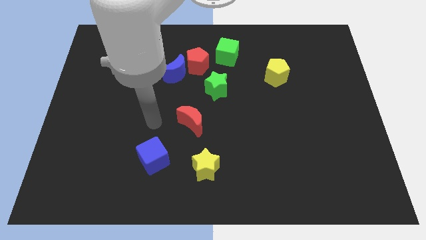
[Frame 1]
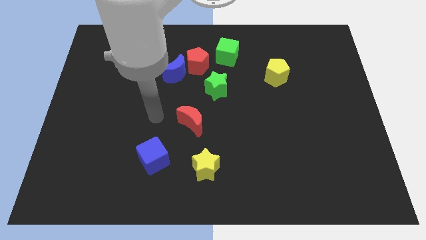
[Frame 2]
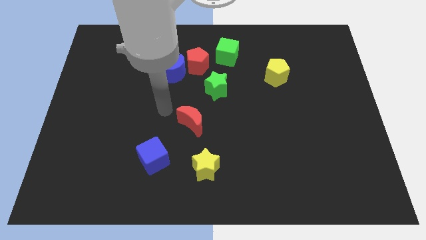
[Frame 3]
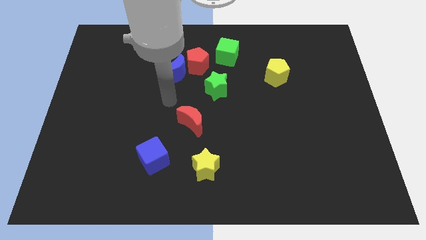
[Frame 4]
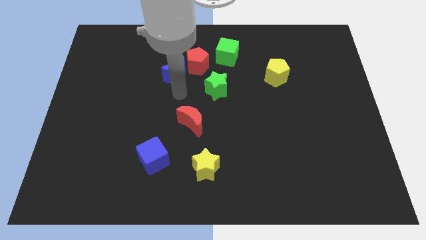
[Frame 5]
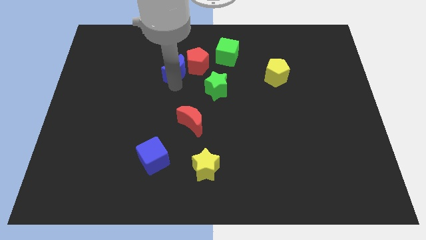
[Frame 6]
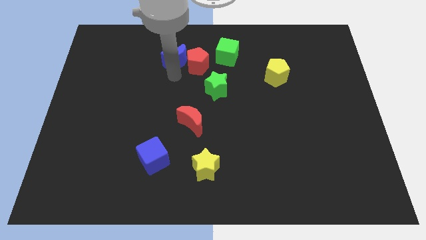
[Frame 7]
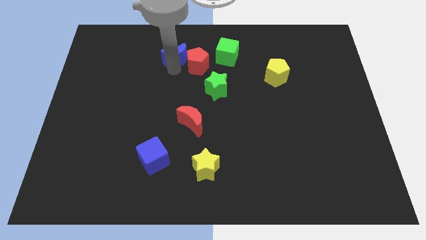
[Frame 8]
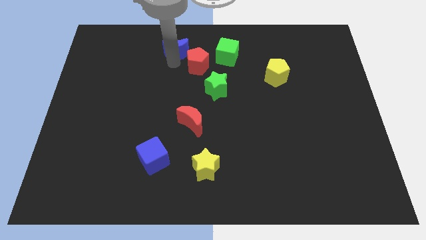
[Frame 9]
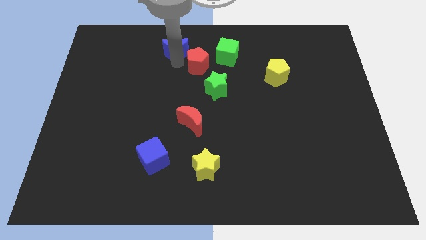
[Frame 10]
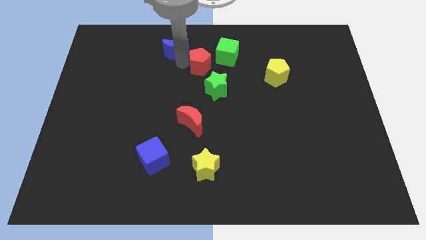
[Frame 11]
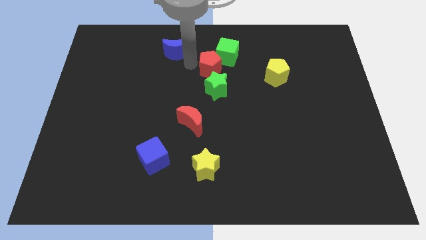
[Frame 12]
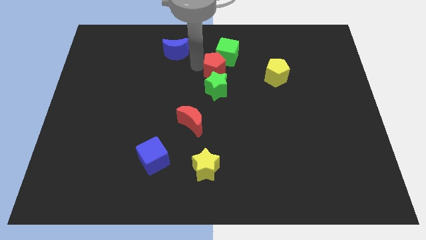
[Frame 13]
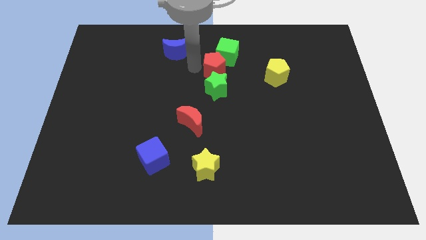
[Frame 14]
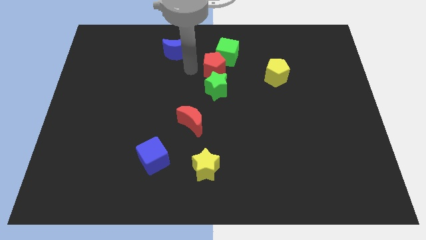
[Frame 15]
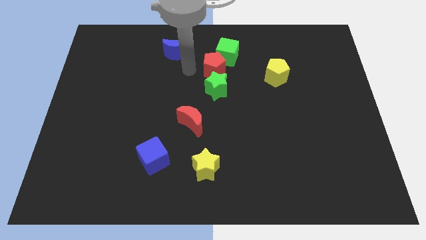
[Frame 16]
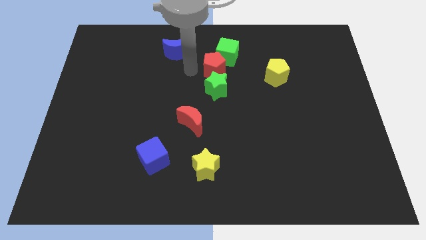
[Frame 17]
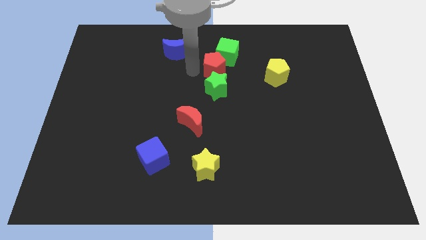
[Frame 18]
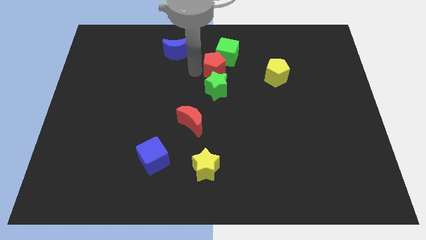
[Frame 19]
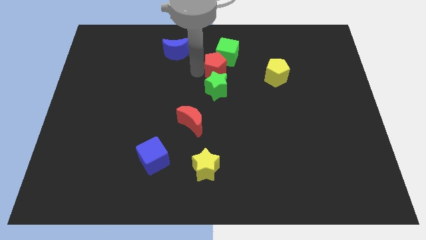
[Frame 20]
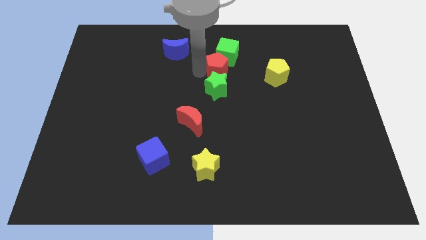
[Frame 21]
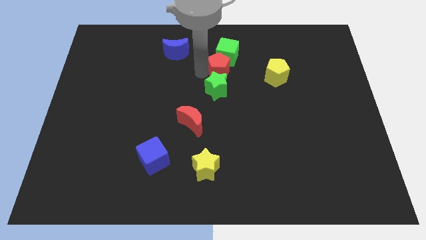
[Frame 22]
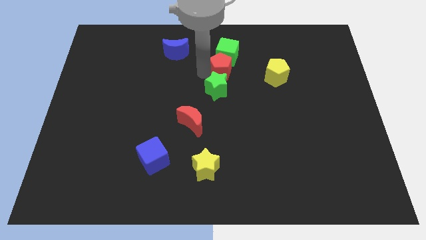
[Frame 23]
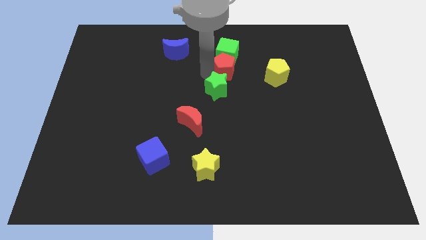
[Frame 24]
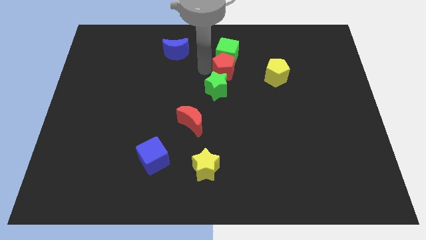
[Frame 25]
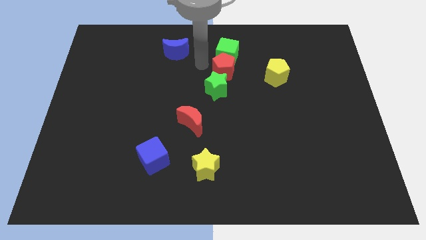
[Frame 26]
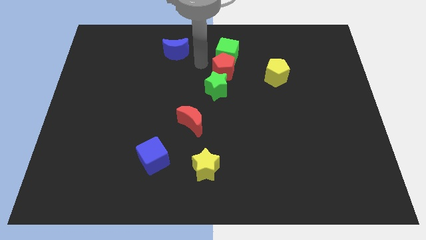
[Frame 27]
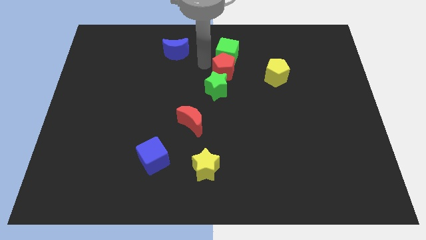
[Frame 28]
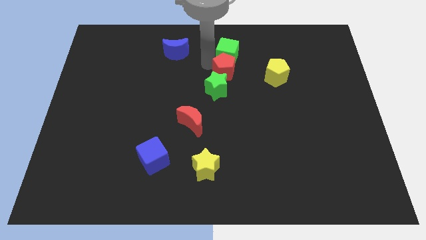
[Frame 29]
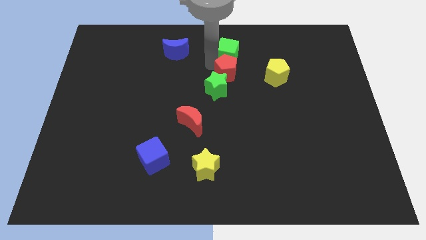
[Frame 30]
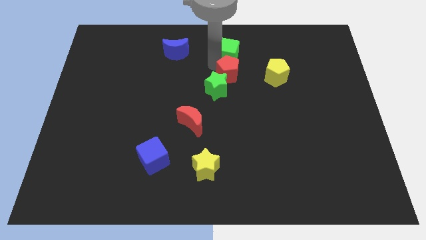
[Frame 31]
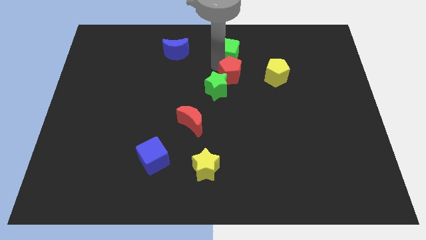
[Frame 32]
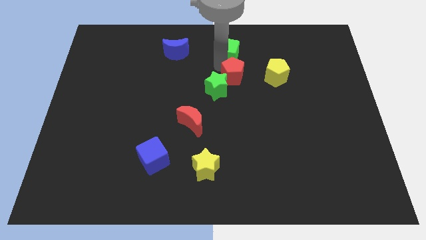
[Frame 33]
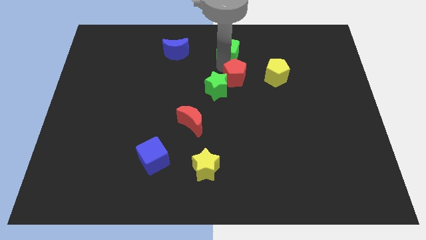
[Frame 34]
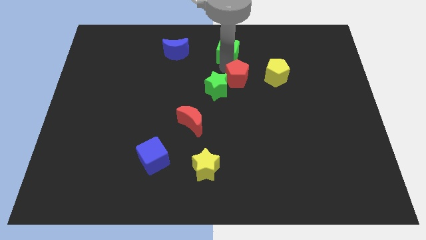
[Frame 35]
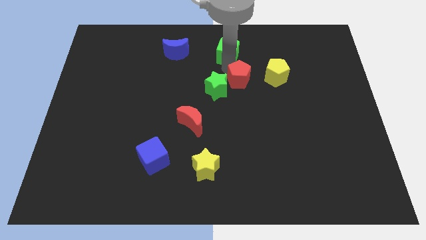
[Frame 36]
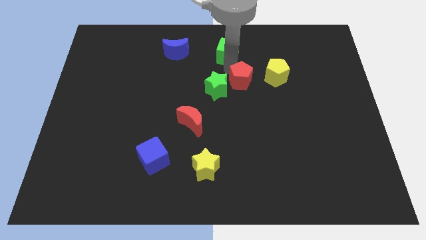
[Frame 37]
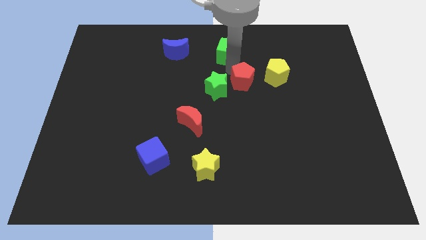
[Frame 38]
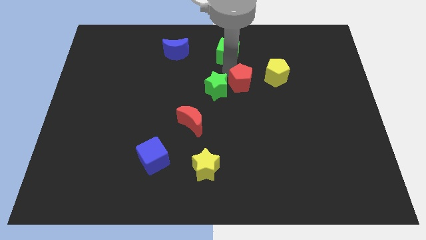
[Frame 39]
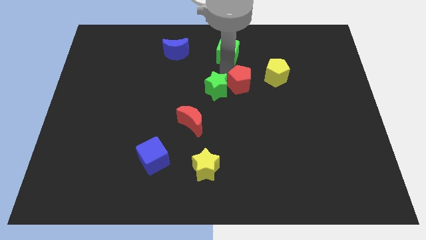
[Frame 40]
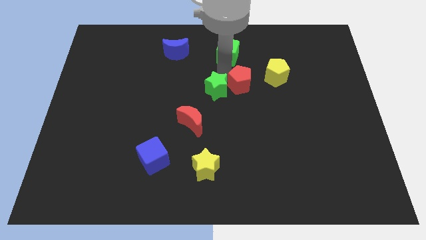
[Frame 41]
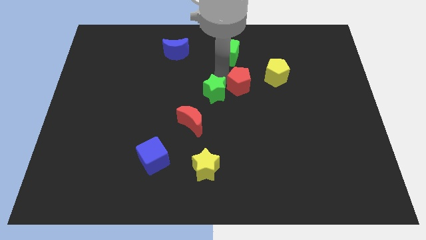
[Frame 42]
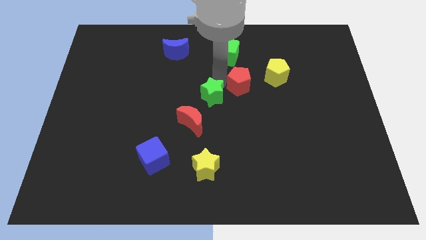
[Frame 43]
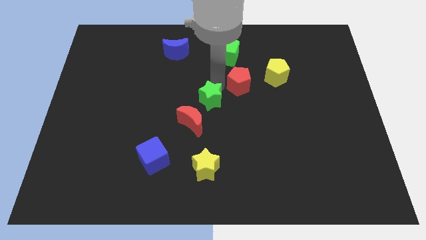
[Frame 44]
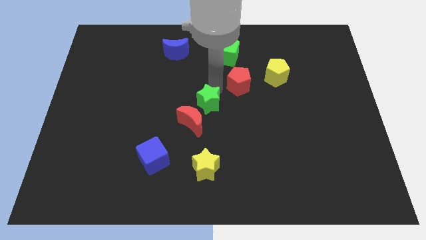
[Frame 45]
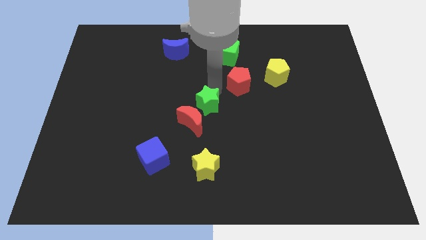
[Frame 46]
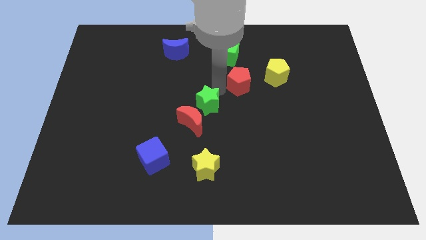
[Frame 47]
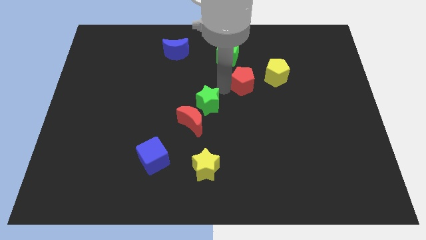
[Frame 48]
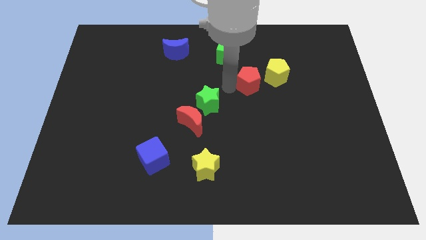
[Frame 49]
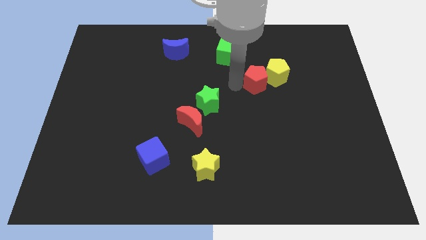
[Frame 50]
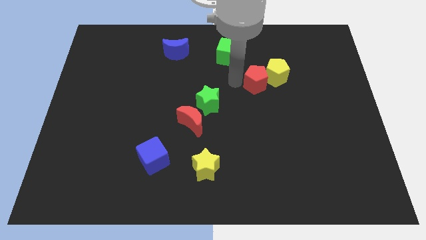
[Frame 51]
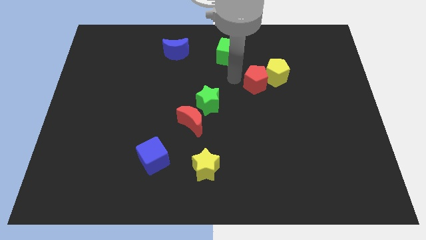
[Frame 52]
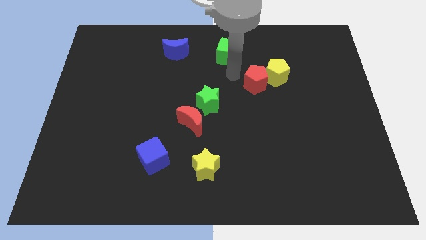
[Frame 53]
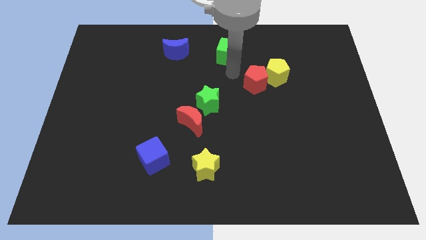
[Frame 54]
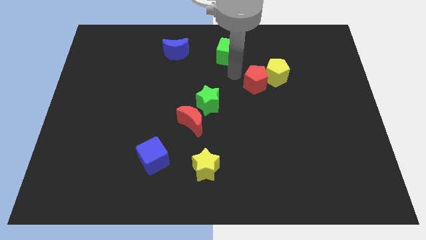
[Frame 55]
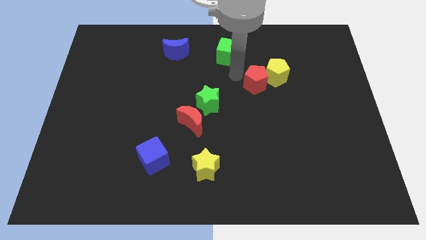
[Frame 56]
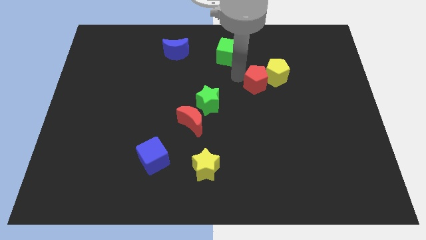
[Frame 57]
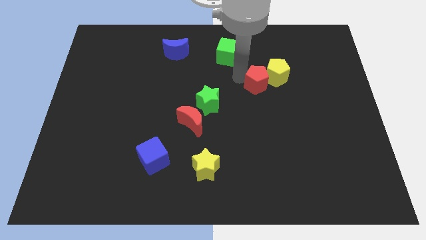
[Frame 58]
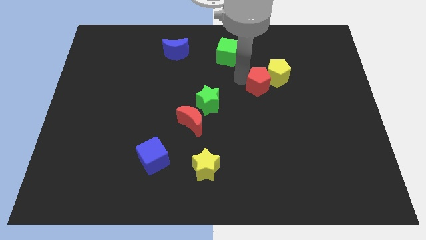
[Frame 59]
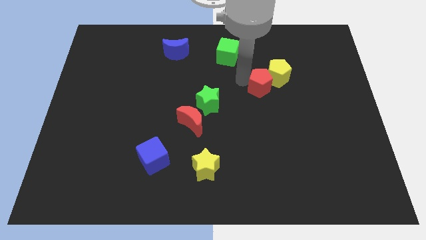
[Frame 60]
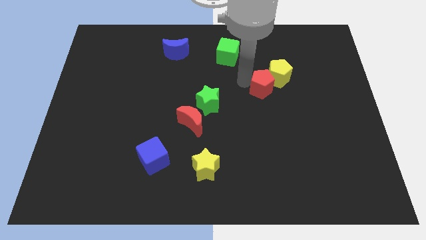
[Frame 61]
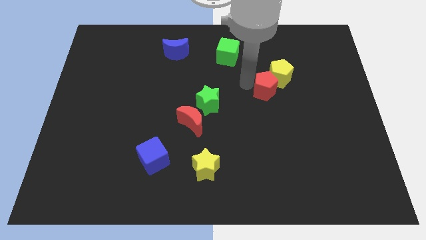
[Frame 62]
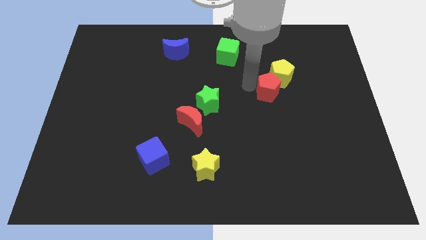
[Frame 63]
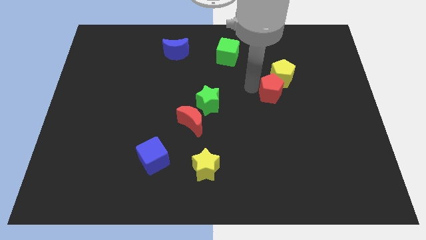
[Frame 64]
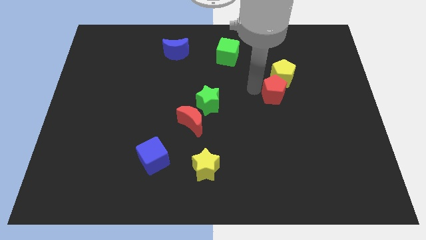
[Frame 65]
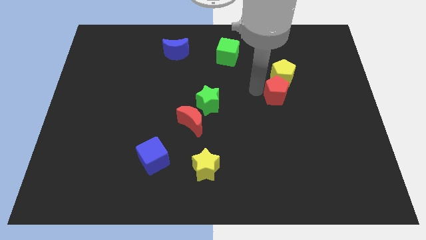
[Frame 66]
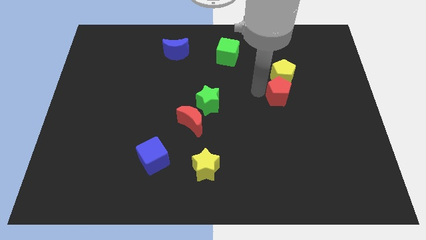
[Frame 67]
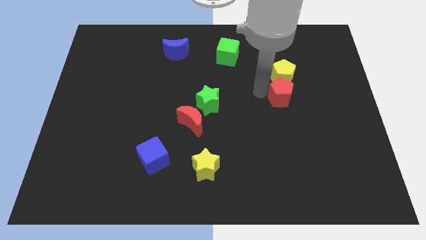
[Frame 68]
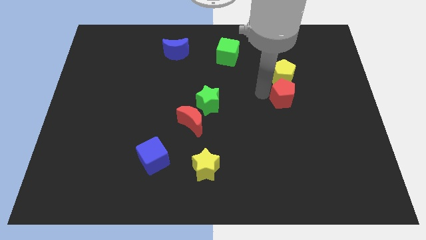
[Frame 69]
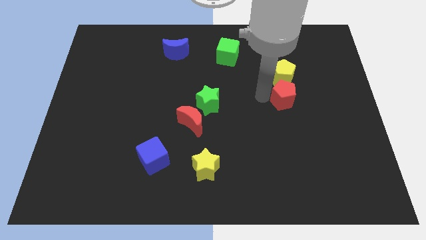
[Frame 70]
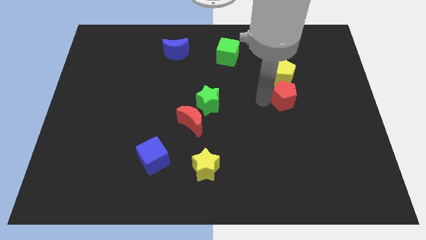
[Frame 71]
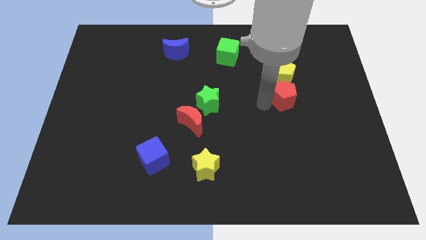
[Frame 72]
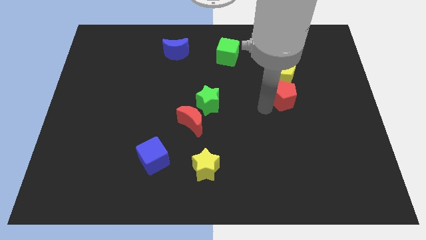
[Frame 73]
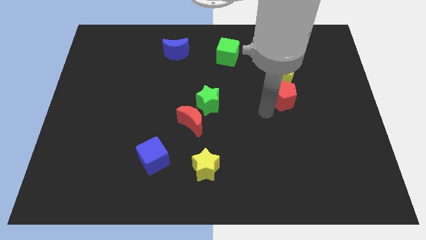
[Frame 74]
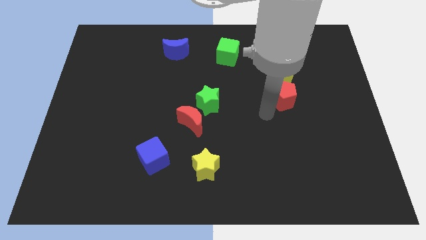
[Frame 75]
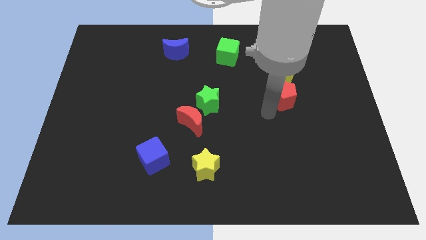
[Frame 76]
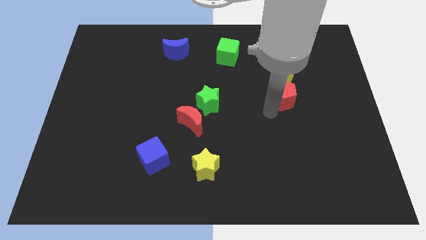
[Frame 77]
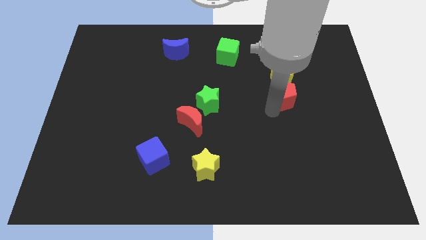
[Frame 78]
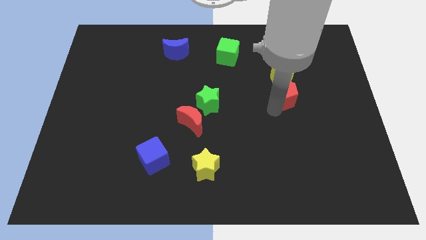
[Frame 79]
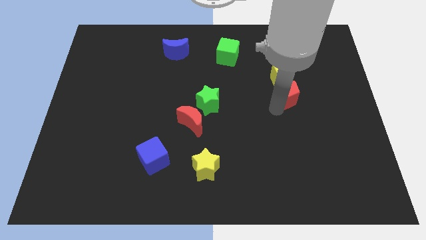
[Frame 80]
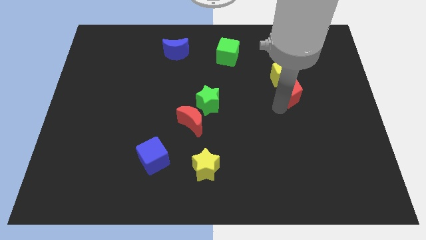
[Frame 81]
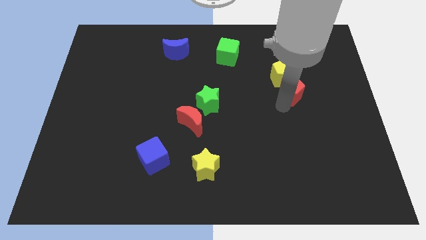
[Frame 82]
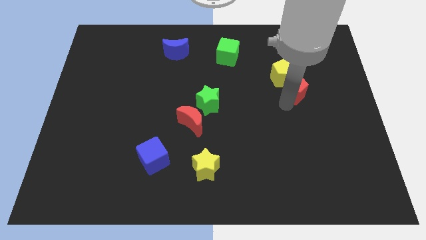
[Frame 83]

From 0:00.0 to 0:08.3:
move the red pentagon to the right
